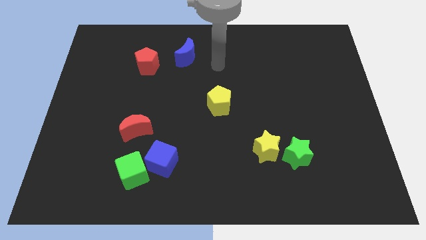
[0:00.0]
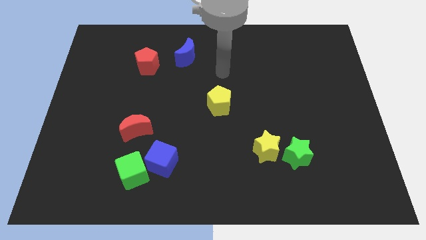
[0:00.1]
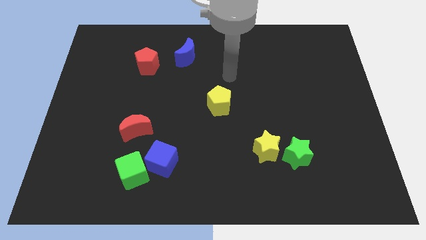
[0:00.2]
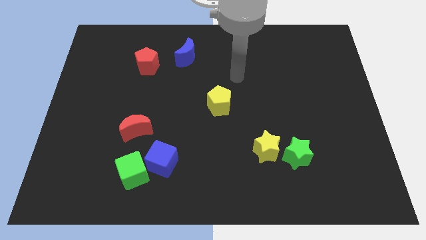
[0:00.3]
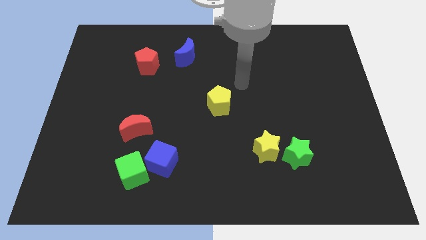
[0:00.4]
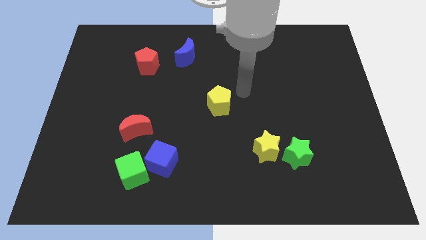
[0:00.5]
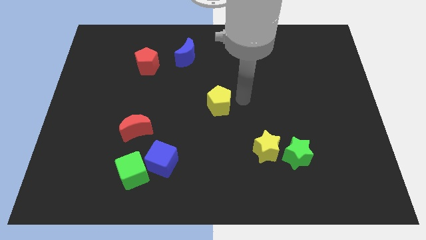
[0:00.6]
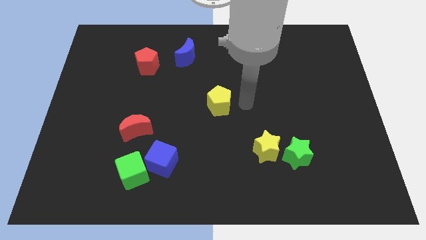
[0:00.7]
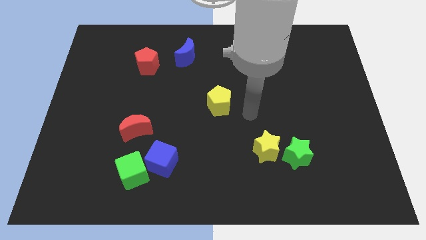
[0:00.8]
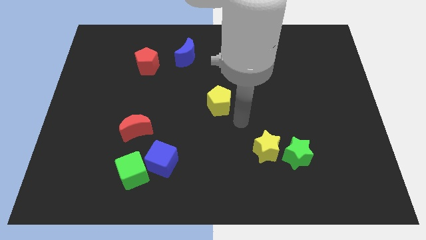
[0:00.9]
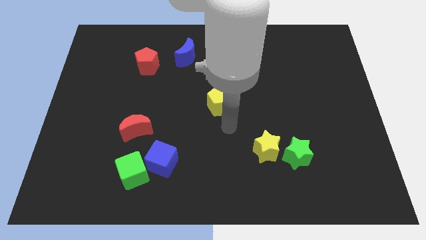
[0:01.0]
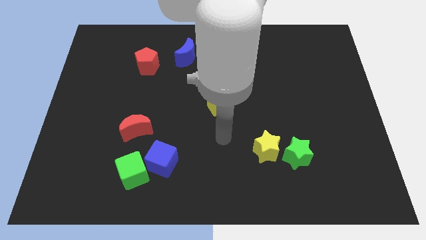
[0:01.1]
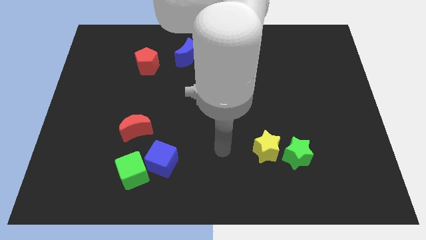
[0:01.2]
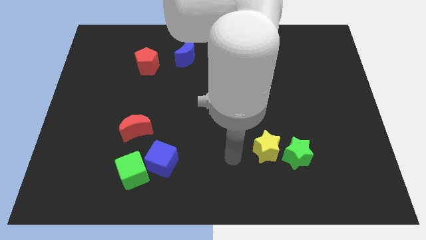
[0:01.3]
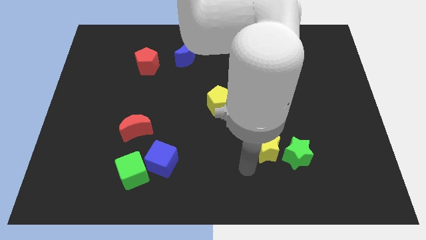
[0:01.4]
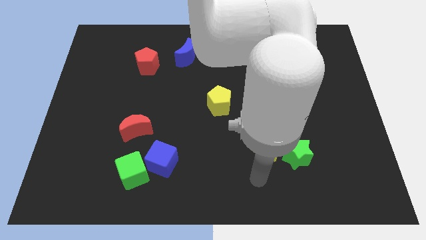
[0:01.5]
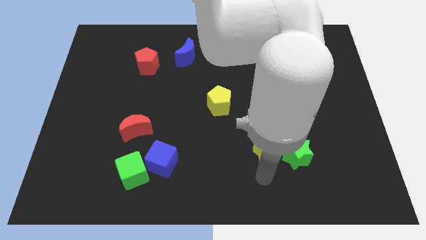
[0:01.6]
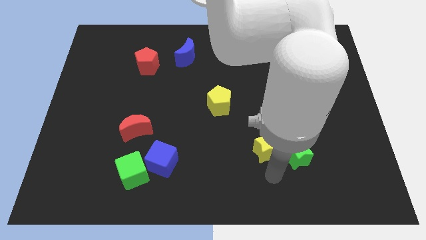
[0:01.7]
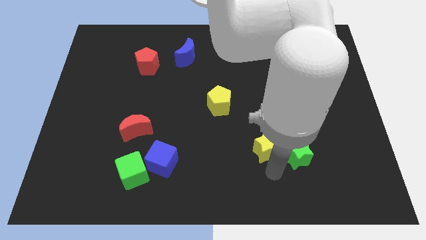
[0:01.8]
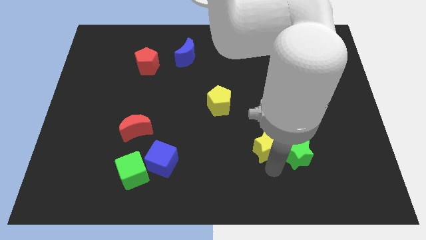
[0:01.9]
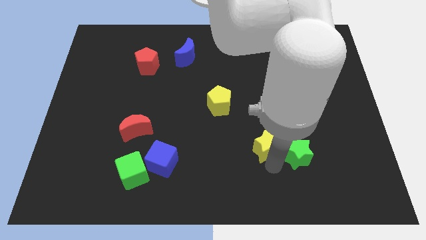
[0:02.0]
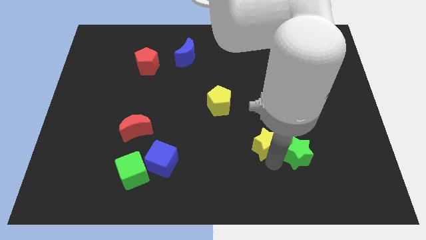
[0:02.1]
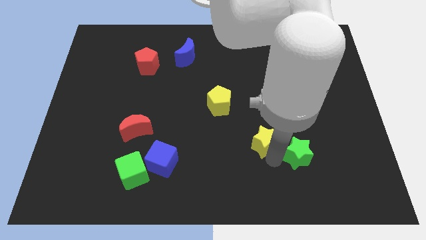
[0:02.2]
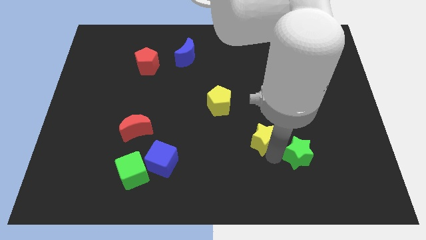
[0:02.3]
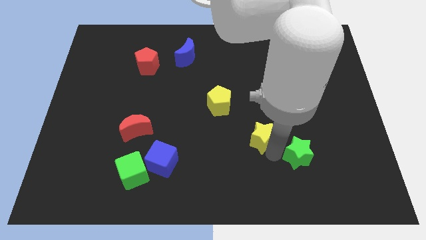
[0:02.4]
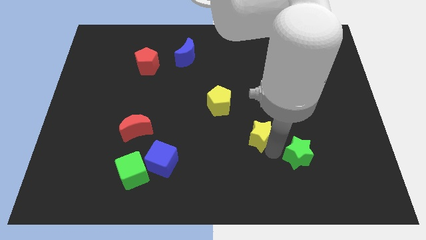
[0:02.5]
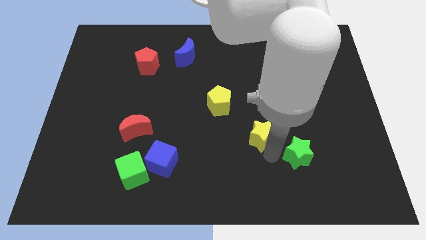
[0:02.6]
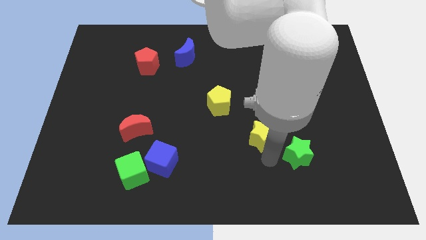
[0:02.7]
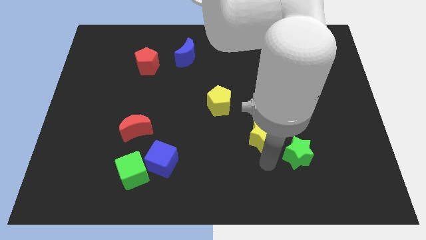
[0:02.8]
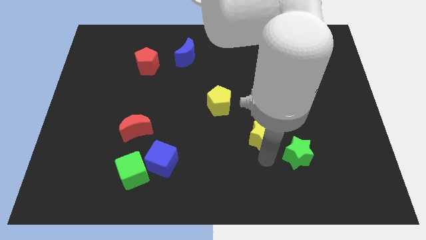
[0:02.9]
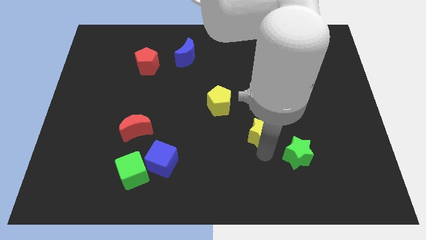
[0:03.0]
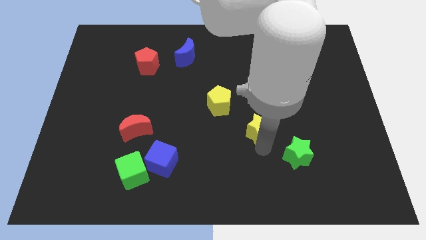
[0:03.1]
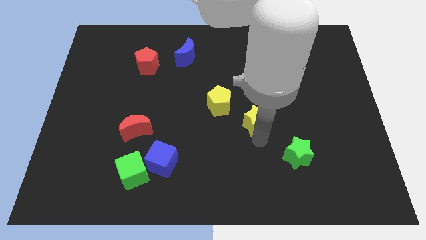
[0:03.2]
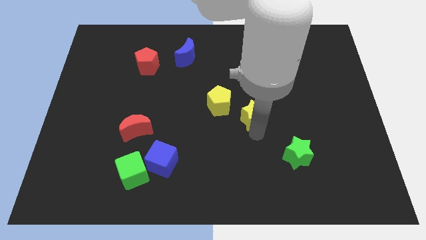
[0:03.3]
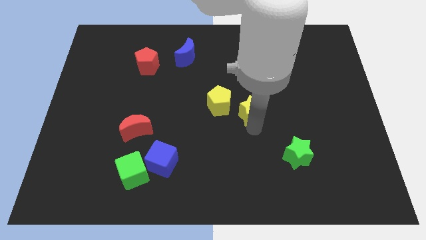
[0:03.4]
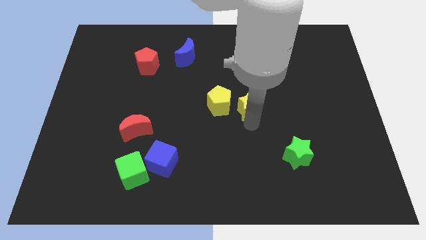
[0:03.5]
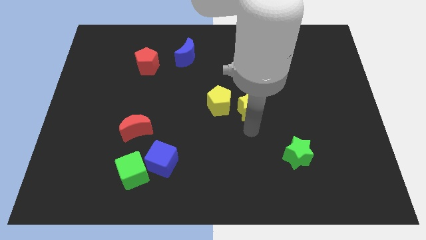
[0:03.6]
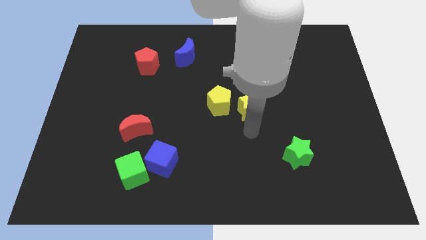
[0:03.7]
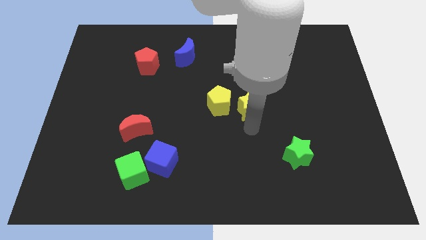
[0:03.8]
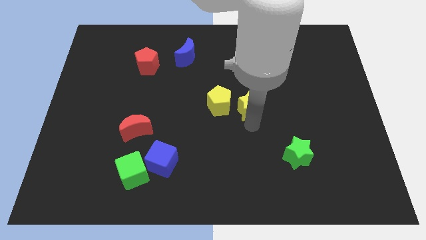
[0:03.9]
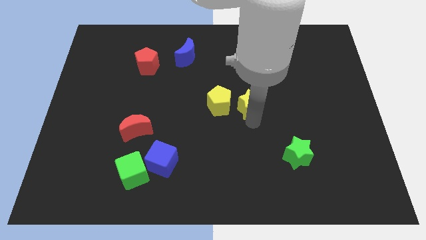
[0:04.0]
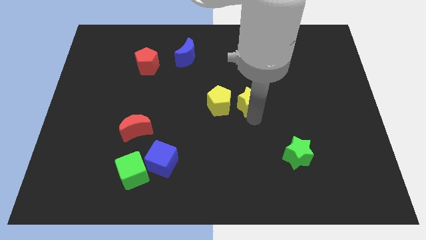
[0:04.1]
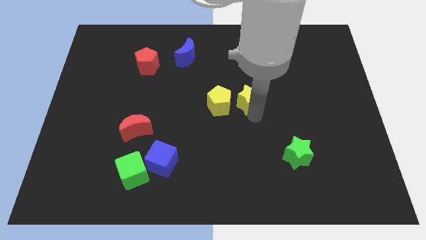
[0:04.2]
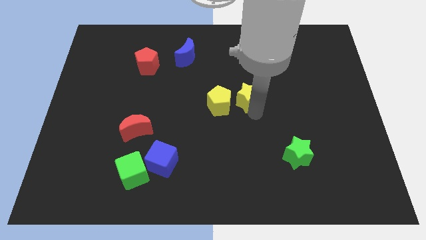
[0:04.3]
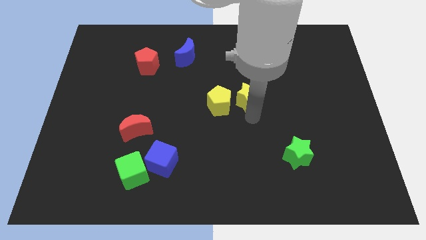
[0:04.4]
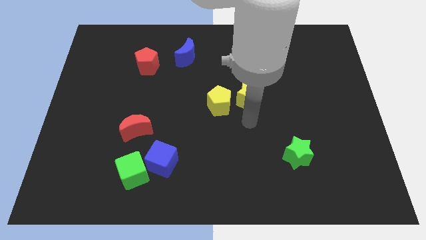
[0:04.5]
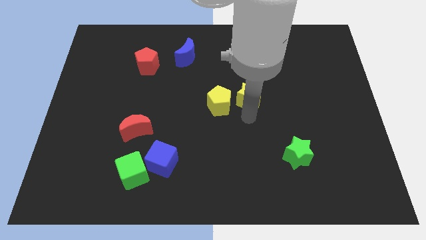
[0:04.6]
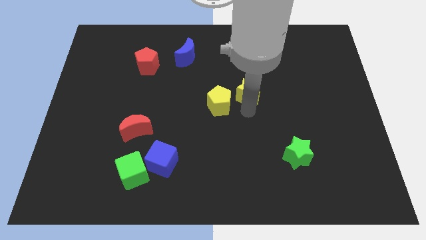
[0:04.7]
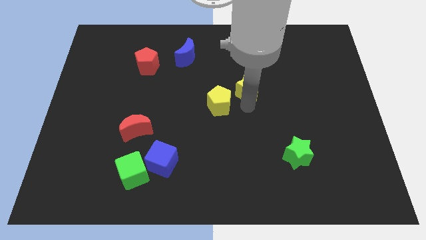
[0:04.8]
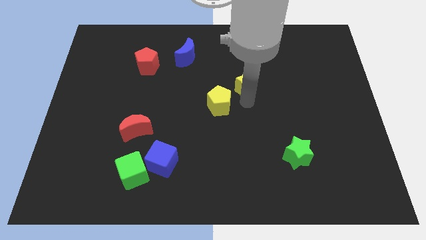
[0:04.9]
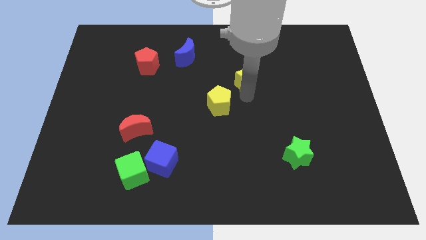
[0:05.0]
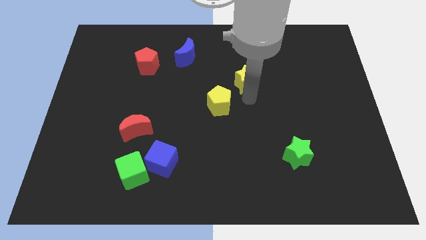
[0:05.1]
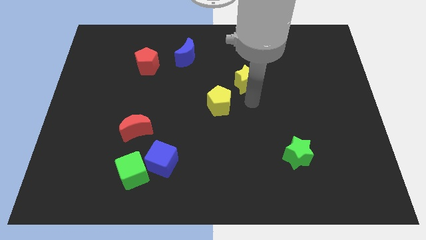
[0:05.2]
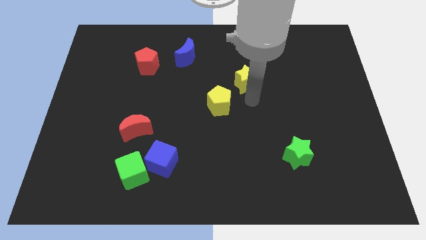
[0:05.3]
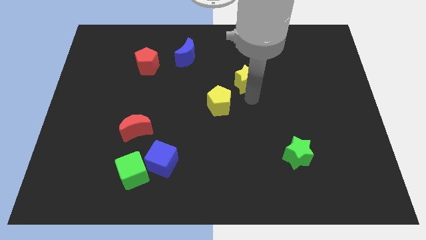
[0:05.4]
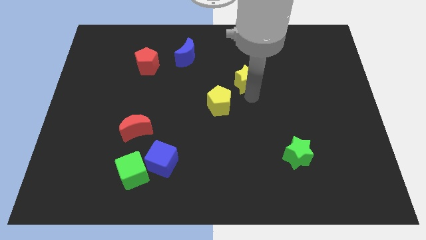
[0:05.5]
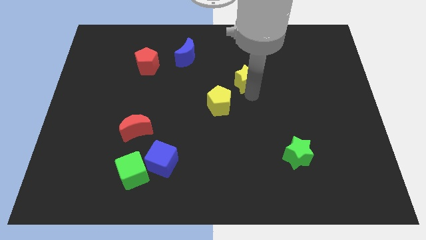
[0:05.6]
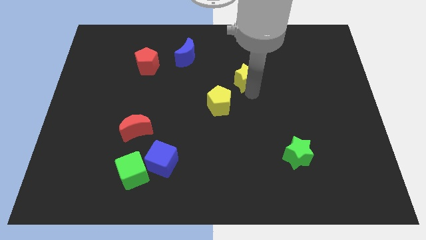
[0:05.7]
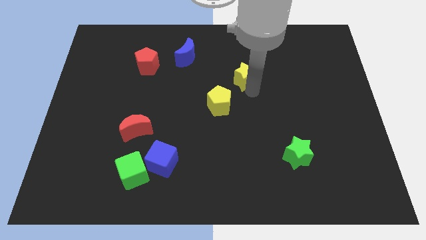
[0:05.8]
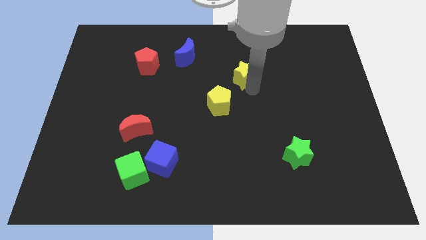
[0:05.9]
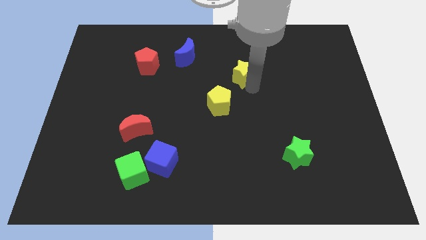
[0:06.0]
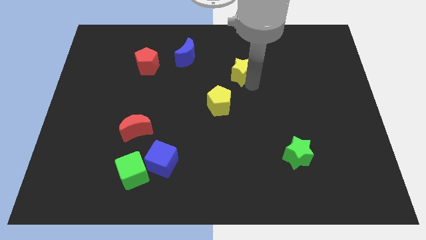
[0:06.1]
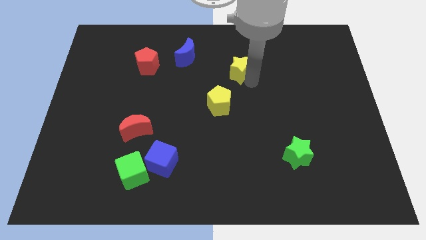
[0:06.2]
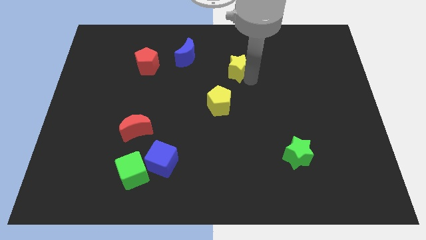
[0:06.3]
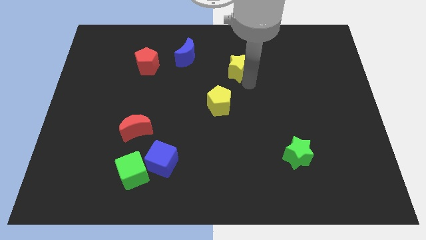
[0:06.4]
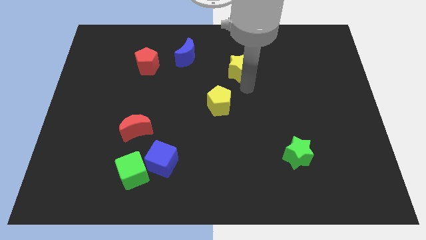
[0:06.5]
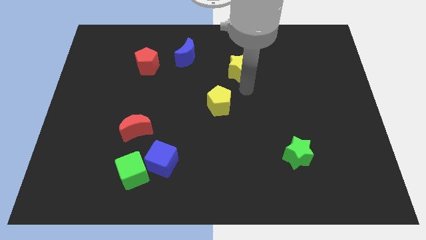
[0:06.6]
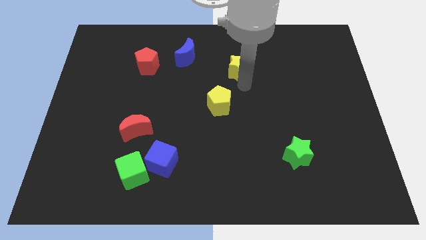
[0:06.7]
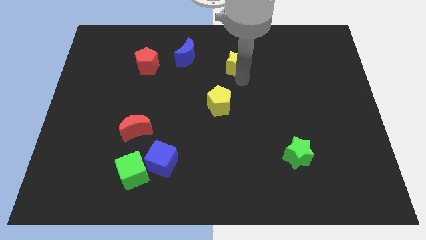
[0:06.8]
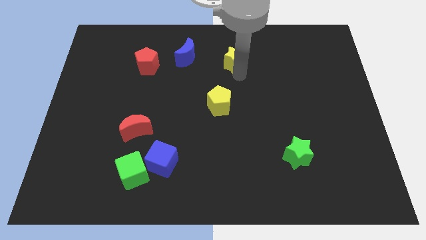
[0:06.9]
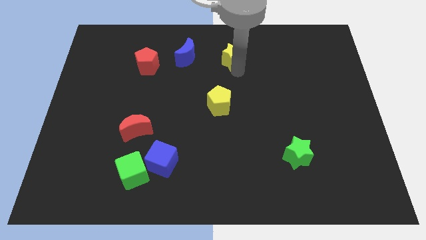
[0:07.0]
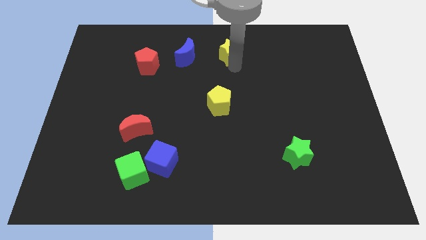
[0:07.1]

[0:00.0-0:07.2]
move the yellow star to the top

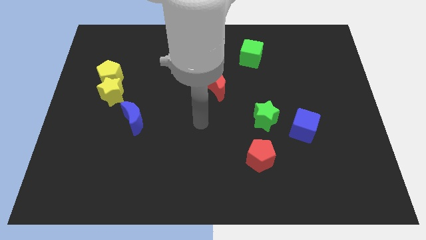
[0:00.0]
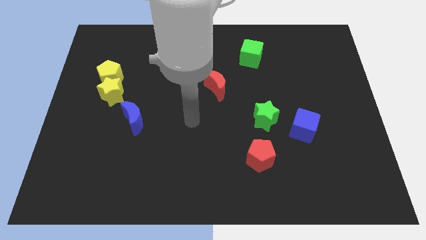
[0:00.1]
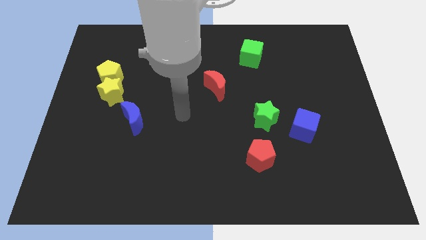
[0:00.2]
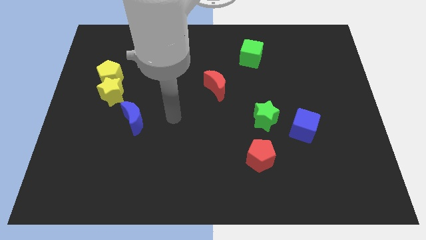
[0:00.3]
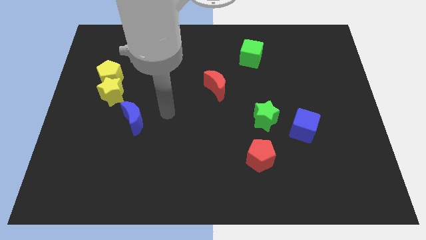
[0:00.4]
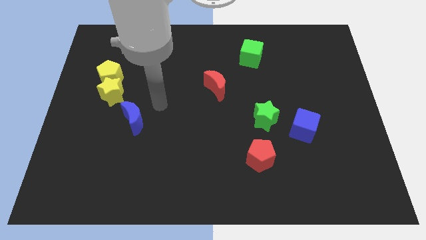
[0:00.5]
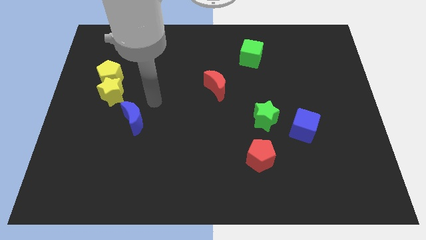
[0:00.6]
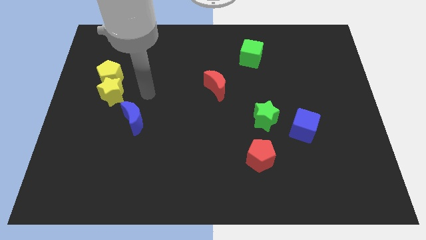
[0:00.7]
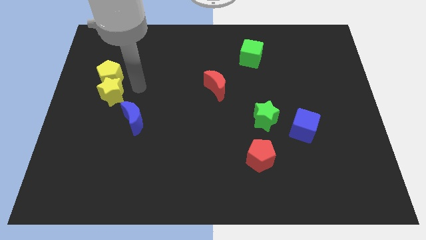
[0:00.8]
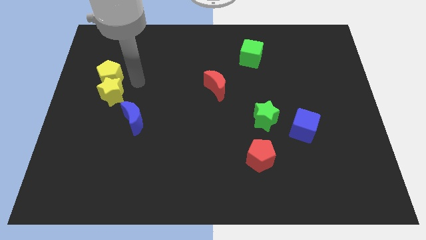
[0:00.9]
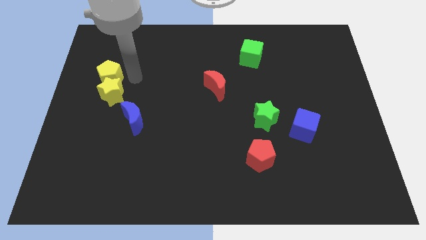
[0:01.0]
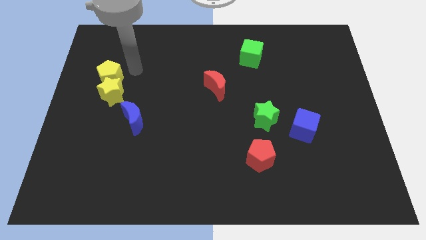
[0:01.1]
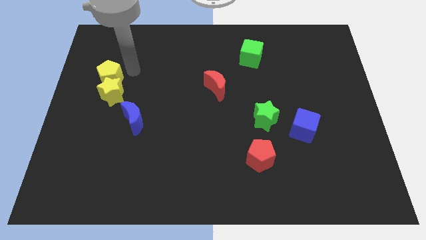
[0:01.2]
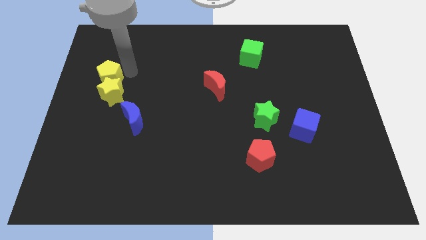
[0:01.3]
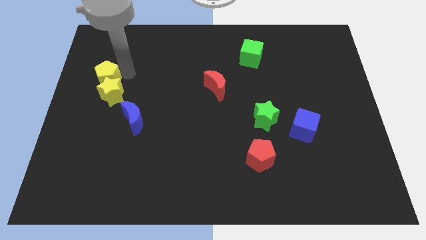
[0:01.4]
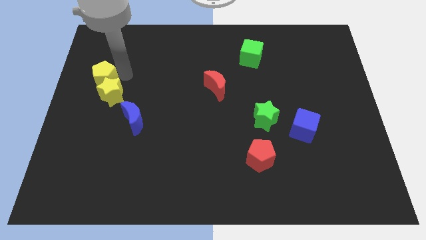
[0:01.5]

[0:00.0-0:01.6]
move the yellow pentagon to the left side of the board
